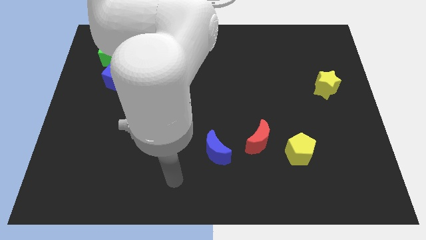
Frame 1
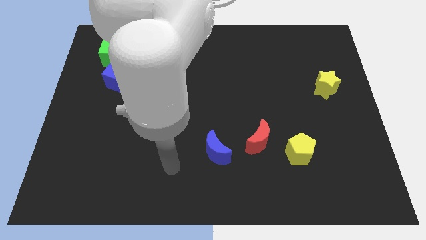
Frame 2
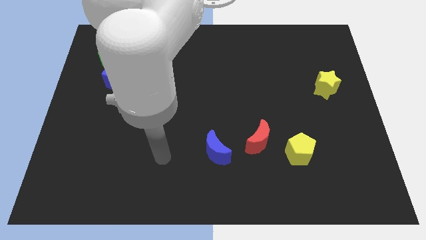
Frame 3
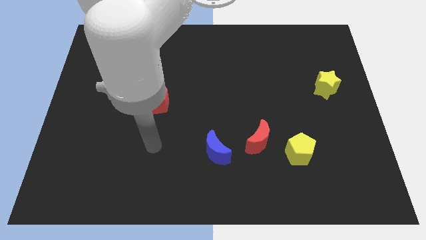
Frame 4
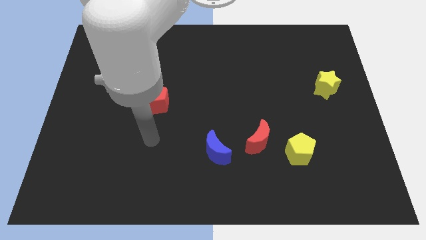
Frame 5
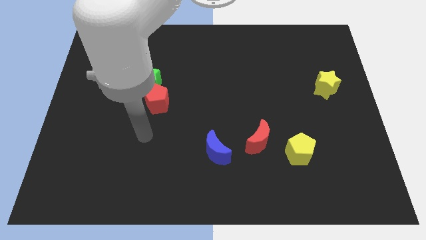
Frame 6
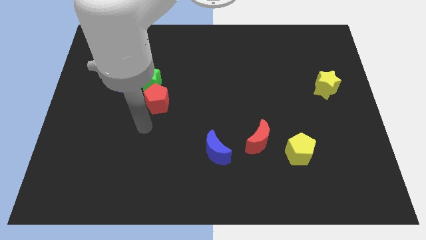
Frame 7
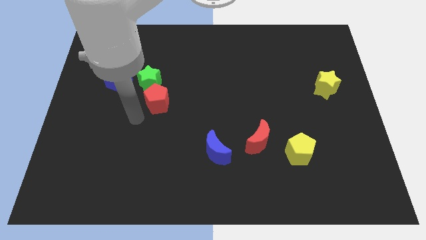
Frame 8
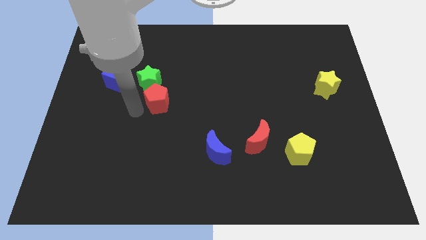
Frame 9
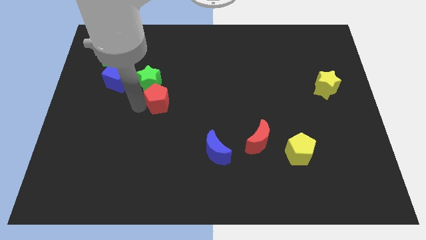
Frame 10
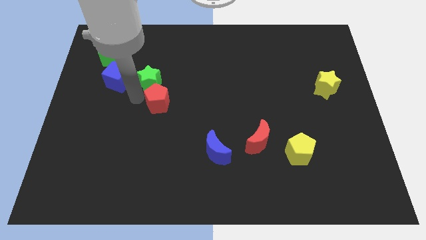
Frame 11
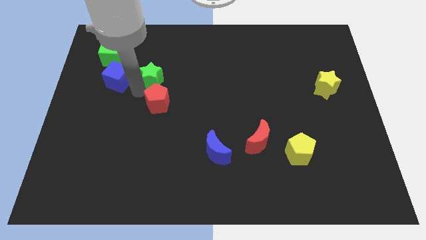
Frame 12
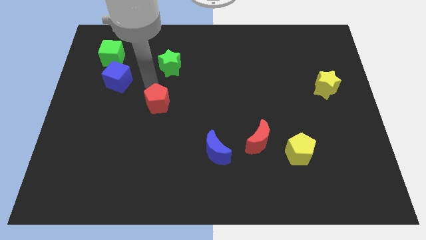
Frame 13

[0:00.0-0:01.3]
pull the red pentagon apart from the green star

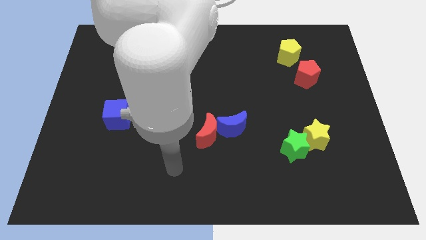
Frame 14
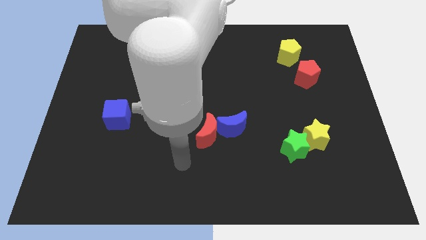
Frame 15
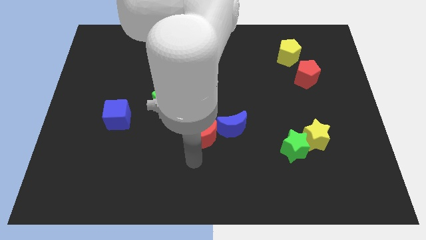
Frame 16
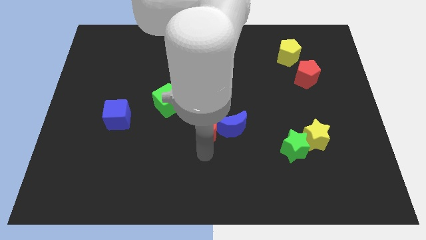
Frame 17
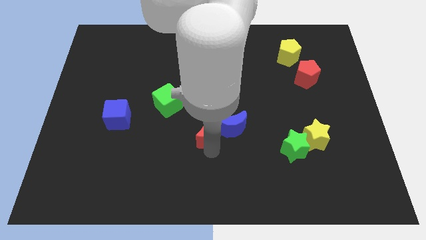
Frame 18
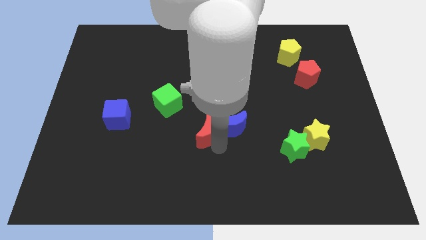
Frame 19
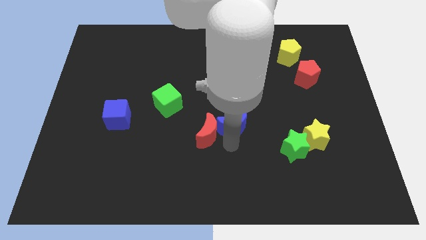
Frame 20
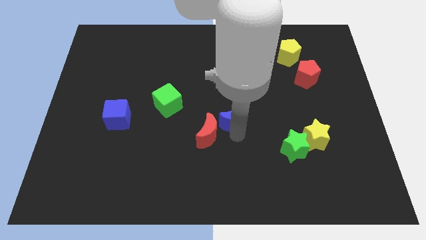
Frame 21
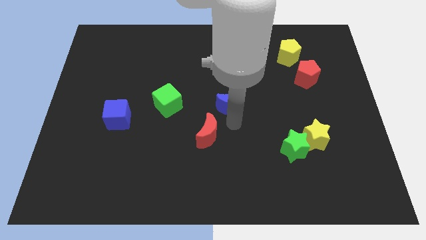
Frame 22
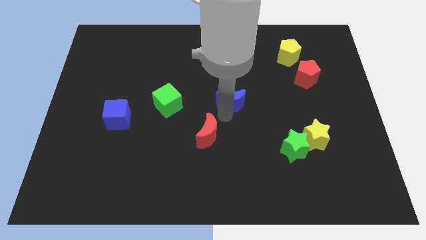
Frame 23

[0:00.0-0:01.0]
move the red moon away from the blue moon

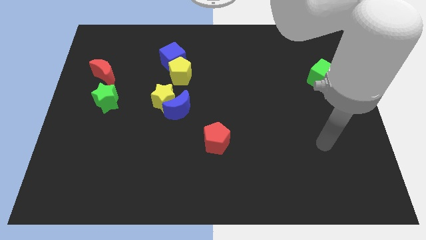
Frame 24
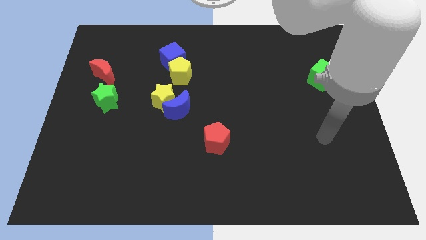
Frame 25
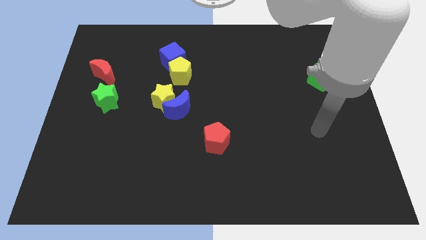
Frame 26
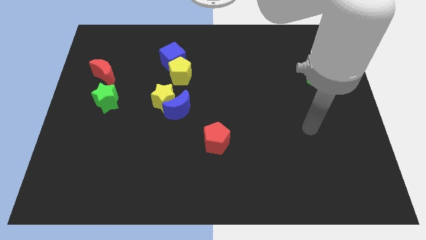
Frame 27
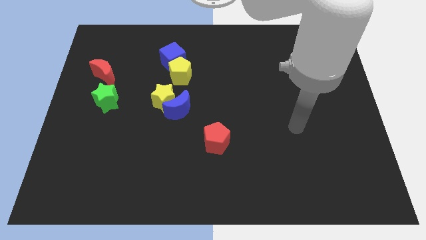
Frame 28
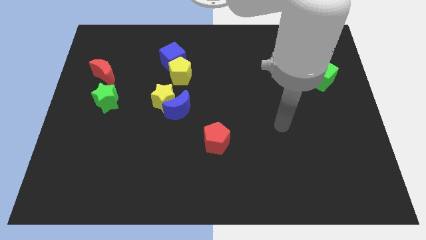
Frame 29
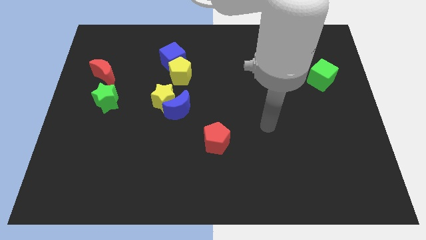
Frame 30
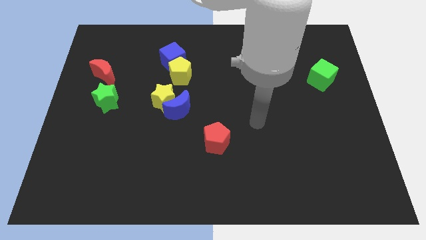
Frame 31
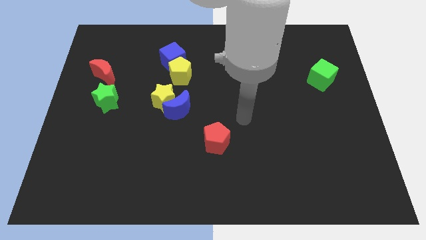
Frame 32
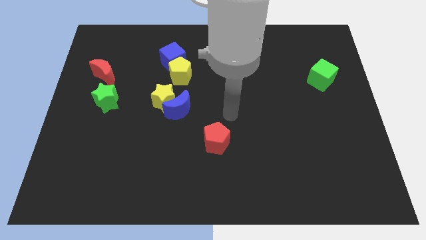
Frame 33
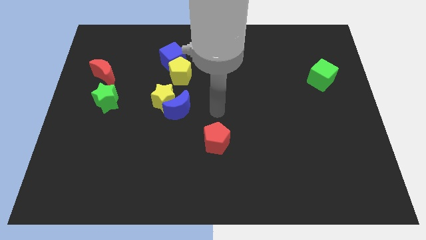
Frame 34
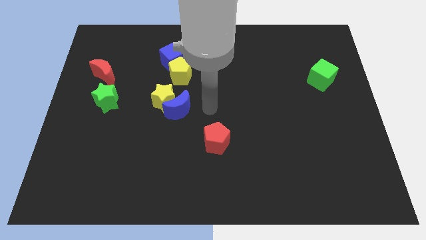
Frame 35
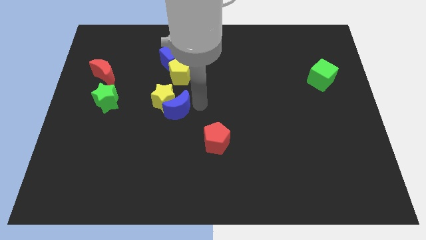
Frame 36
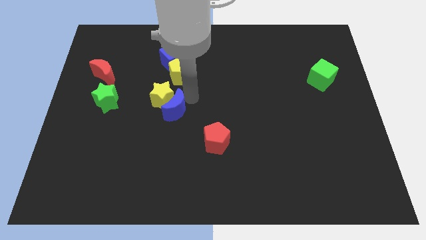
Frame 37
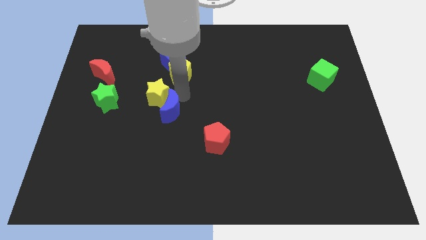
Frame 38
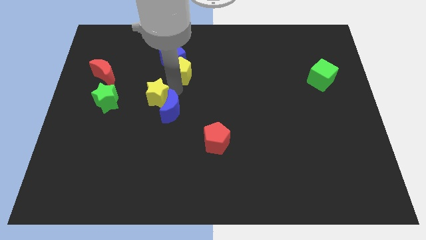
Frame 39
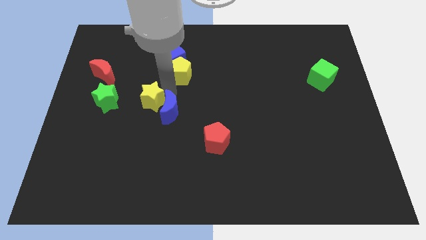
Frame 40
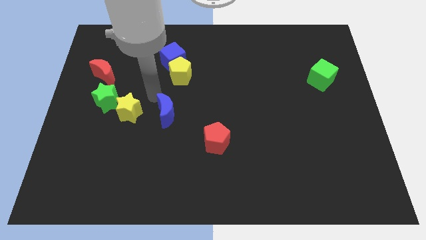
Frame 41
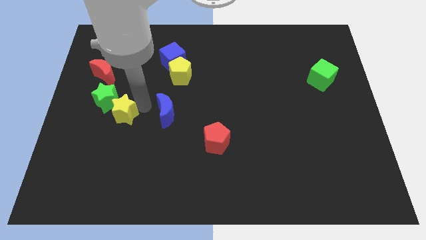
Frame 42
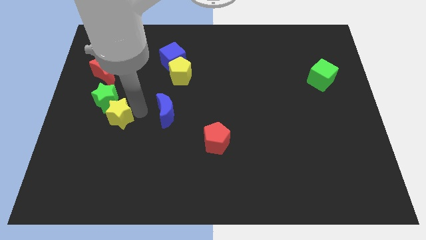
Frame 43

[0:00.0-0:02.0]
pull the blue moon apart from the yellow star

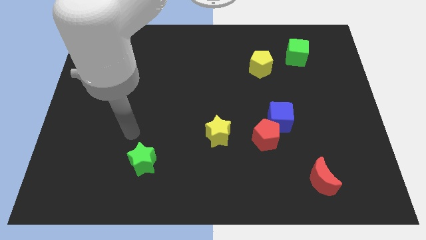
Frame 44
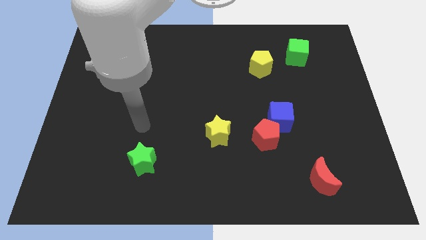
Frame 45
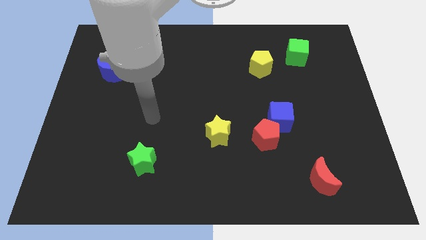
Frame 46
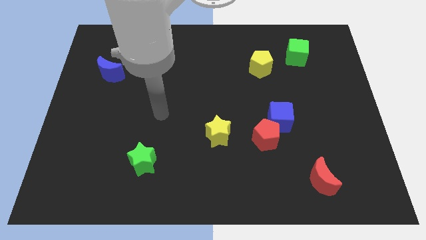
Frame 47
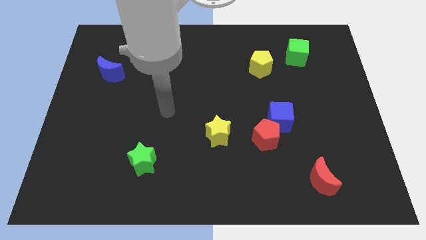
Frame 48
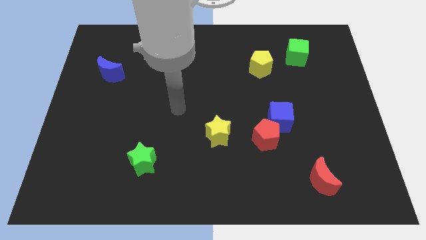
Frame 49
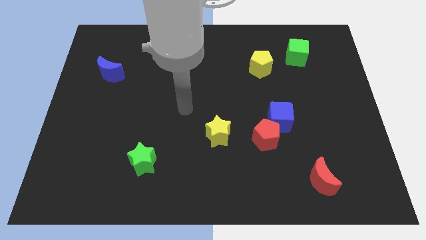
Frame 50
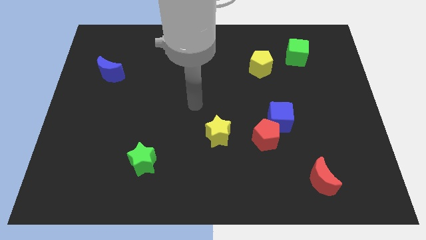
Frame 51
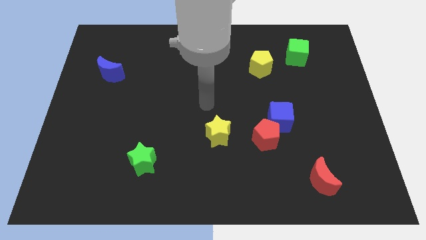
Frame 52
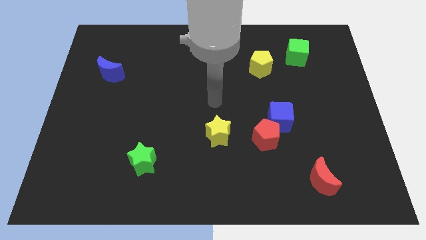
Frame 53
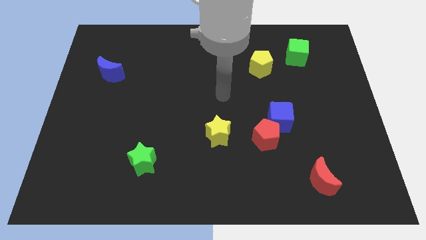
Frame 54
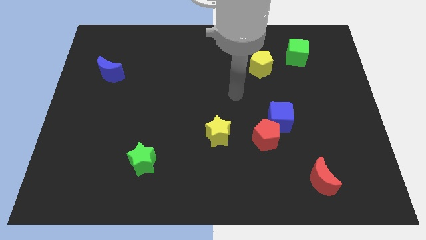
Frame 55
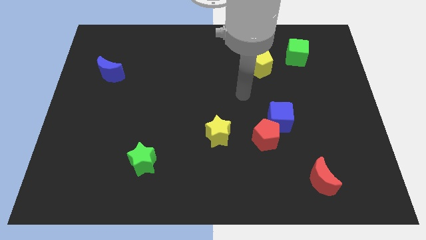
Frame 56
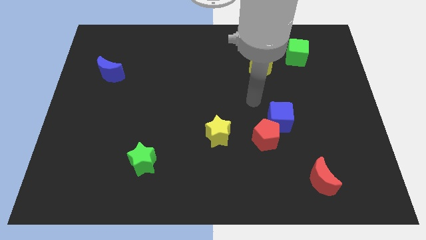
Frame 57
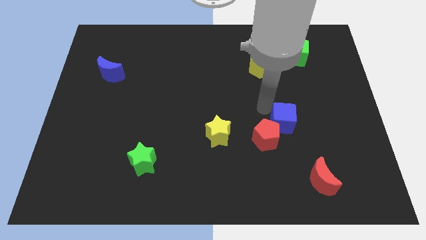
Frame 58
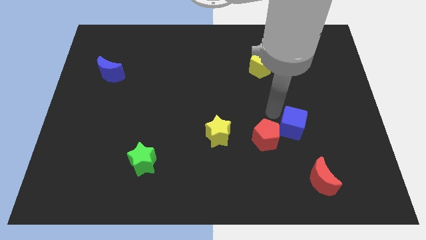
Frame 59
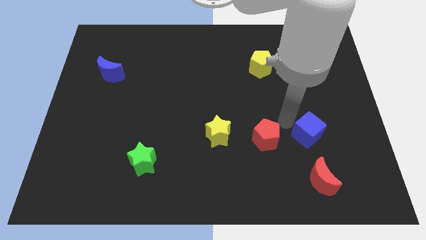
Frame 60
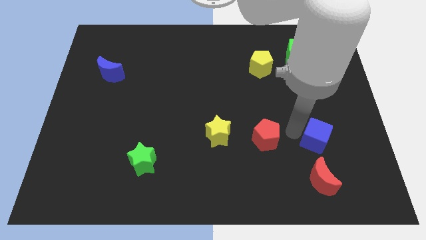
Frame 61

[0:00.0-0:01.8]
separate the red pentagon from the blue cube

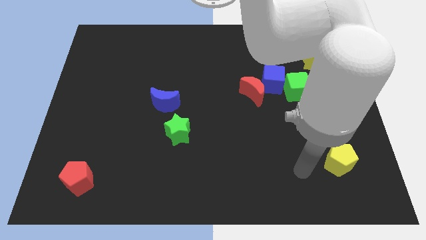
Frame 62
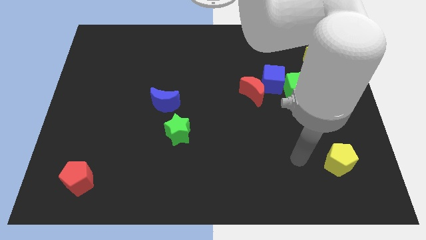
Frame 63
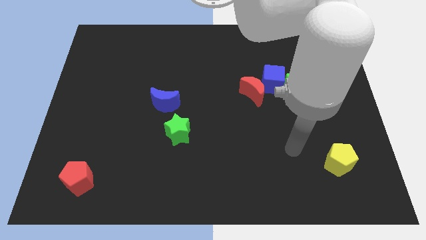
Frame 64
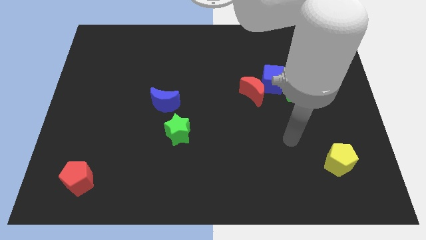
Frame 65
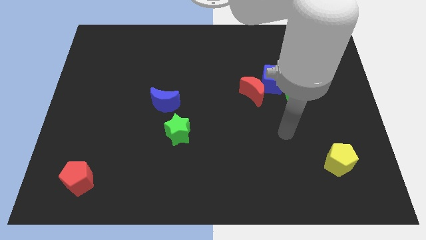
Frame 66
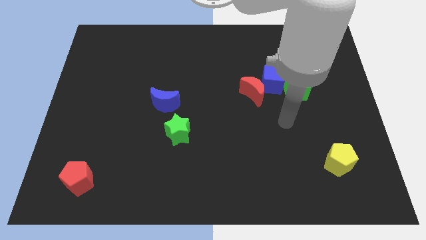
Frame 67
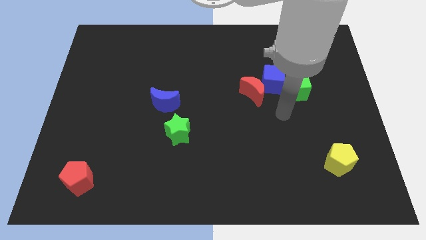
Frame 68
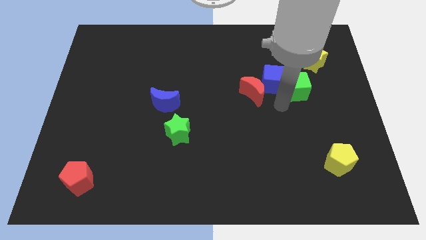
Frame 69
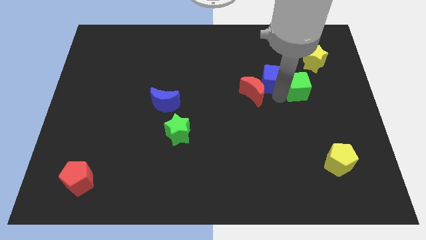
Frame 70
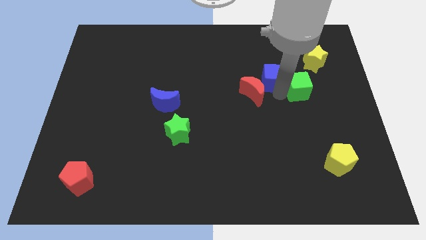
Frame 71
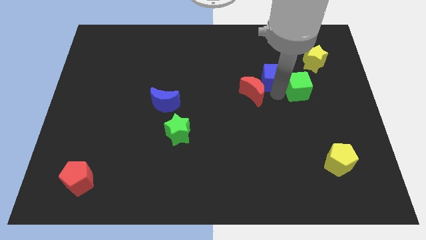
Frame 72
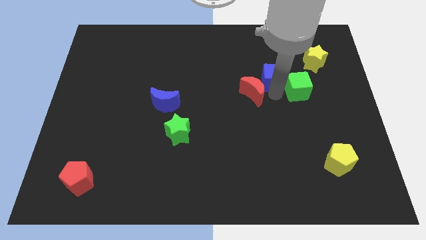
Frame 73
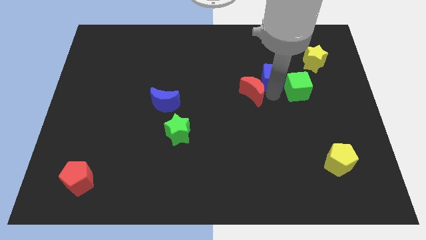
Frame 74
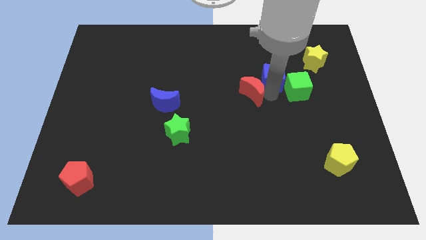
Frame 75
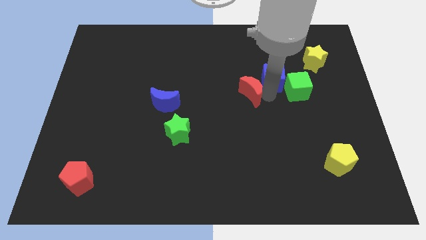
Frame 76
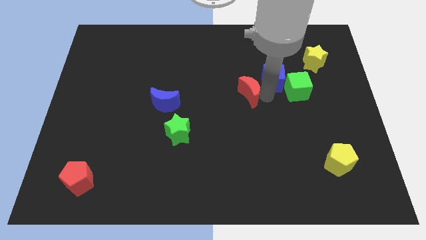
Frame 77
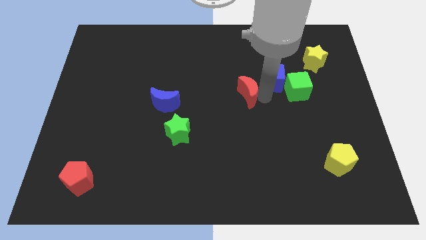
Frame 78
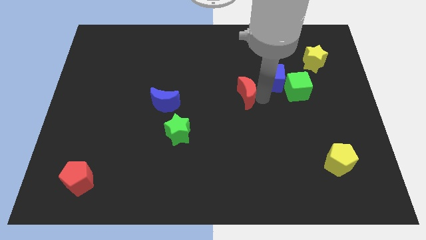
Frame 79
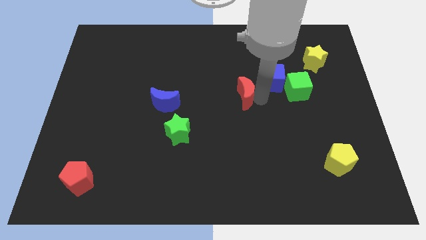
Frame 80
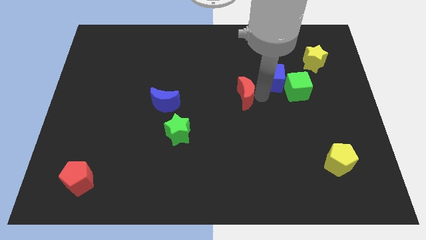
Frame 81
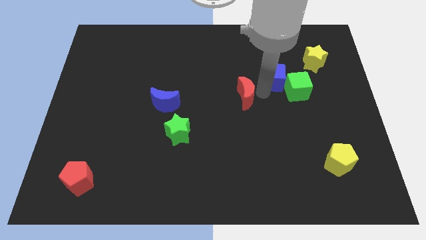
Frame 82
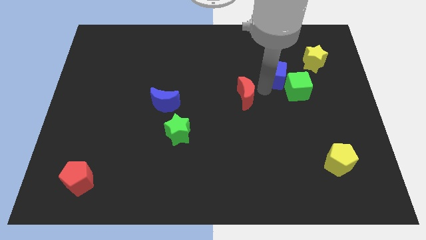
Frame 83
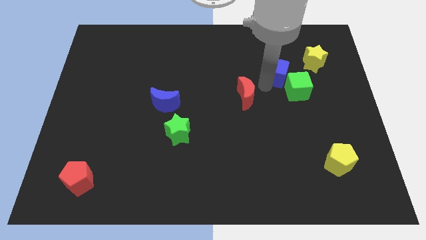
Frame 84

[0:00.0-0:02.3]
move the red moon away from the blue cube

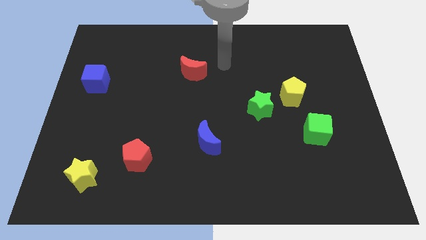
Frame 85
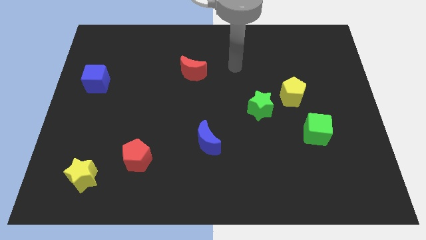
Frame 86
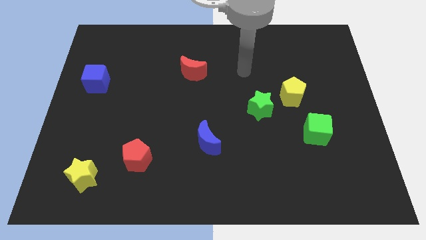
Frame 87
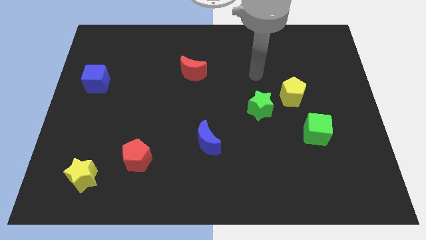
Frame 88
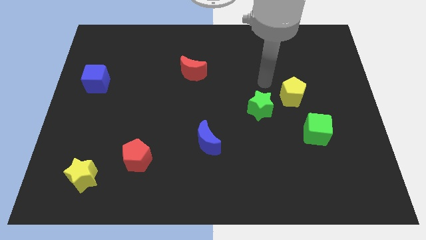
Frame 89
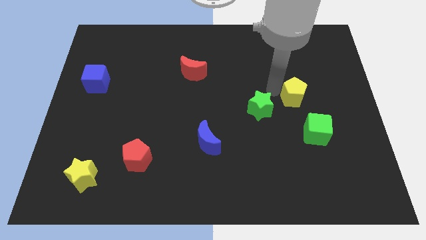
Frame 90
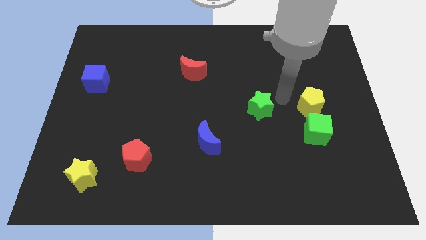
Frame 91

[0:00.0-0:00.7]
pull the green star apart from the yellow pentagon

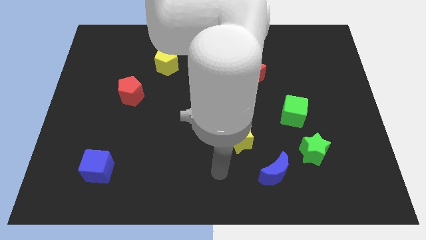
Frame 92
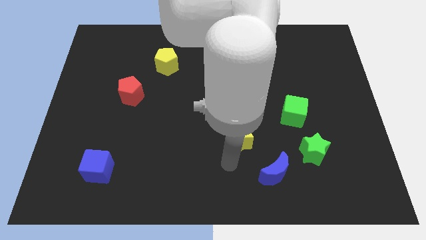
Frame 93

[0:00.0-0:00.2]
separate the blue moon from the green star
